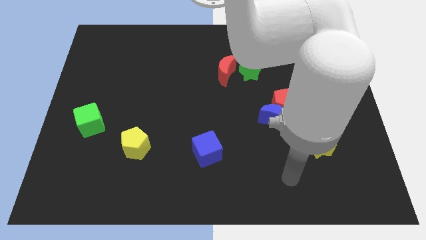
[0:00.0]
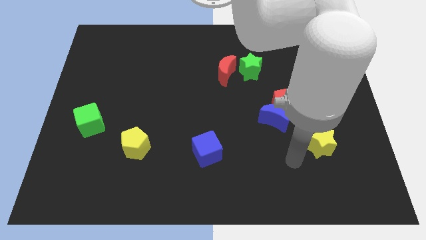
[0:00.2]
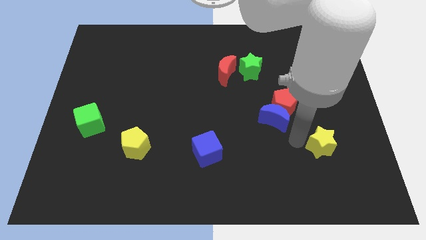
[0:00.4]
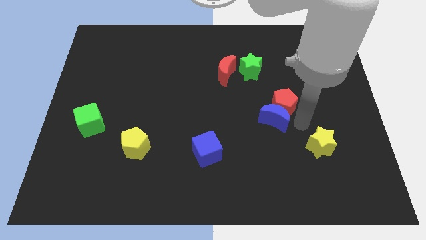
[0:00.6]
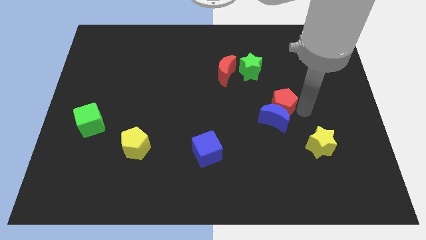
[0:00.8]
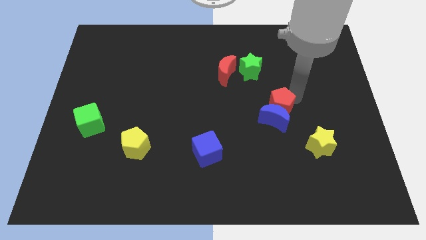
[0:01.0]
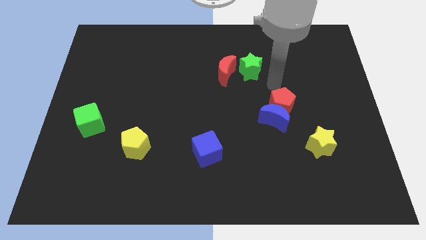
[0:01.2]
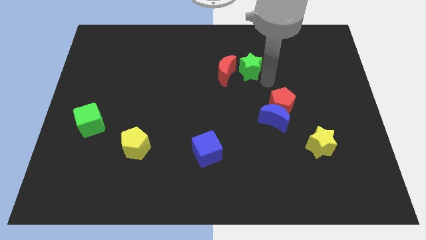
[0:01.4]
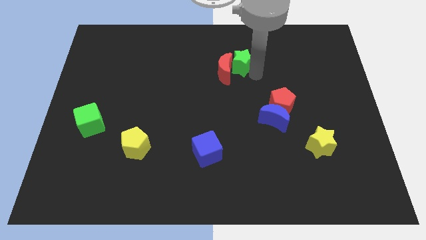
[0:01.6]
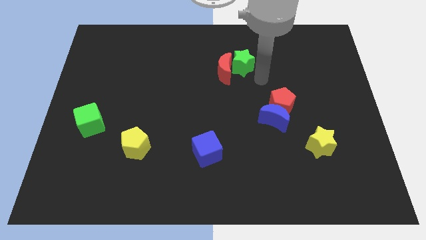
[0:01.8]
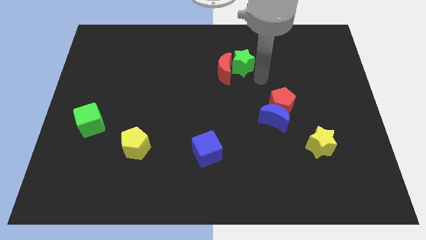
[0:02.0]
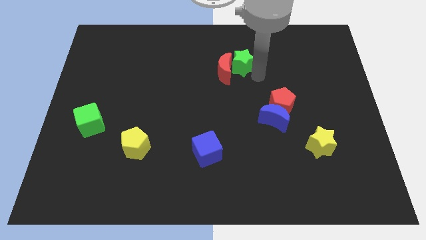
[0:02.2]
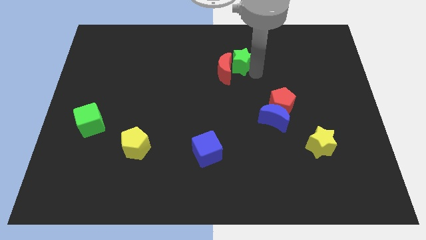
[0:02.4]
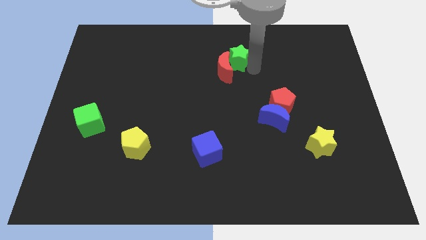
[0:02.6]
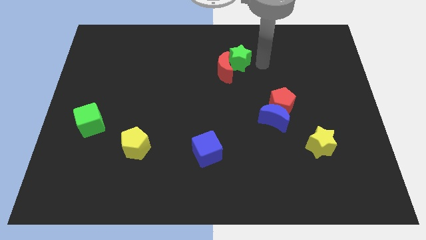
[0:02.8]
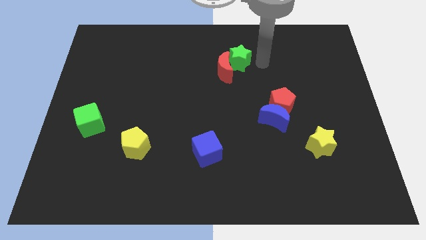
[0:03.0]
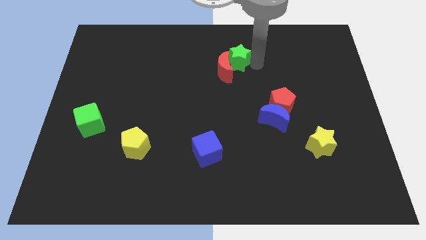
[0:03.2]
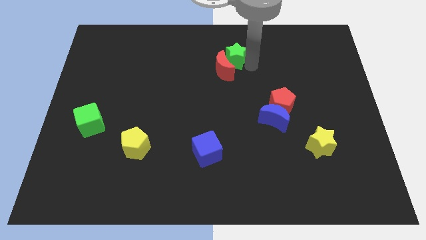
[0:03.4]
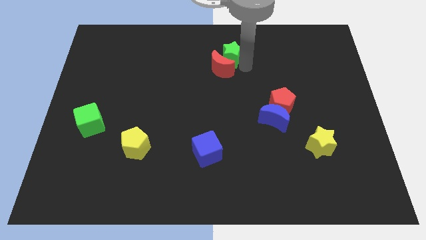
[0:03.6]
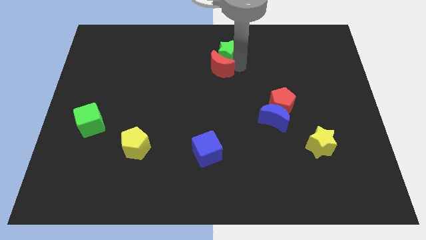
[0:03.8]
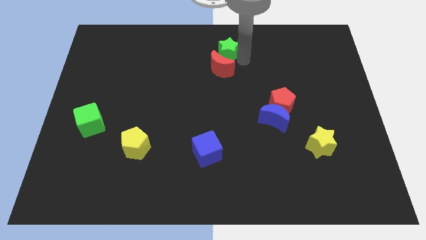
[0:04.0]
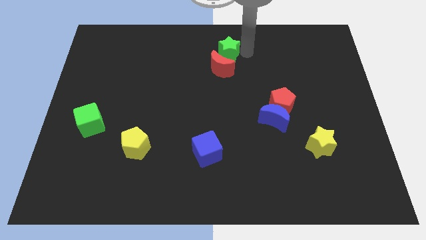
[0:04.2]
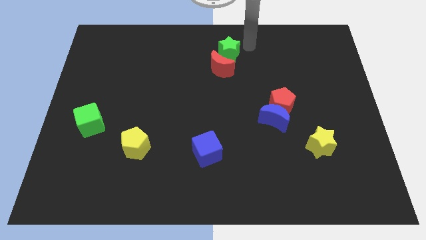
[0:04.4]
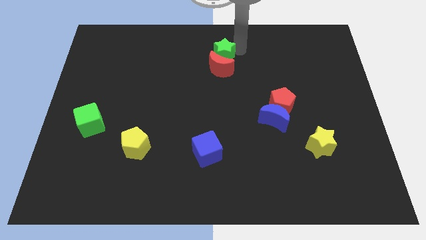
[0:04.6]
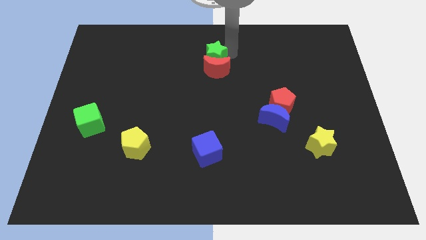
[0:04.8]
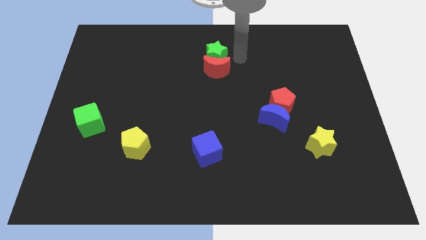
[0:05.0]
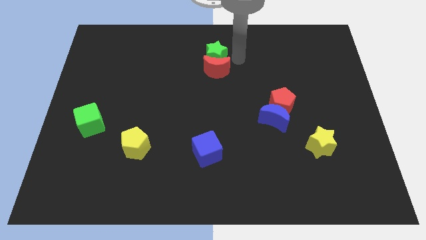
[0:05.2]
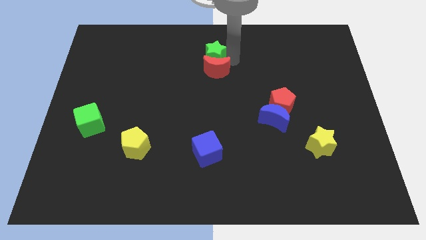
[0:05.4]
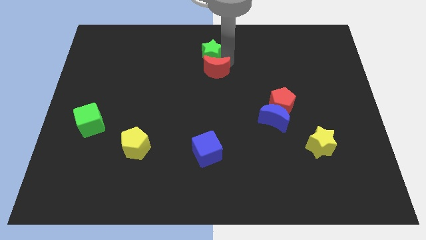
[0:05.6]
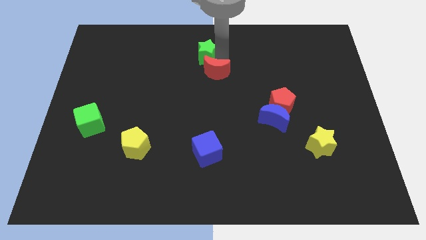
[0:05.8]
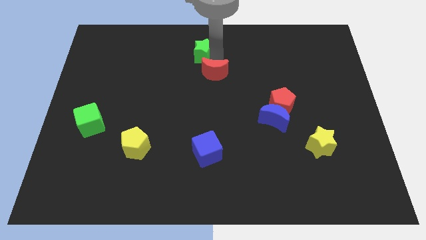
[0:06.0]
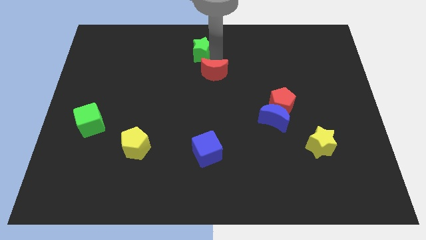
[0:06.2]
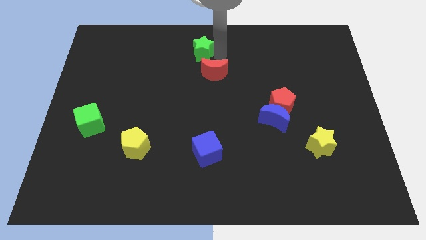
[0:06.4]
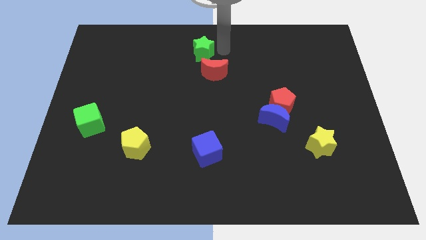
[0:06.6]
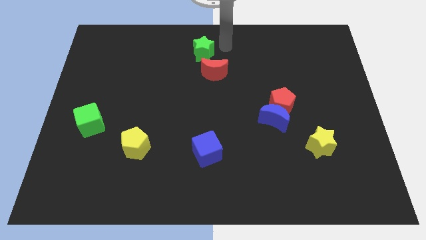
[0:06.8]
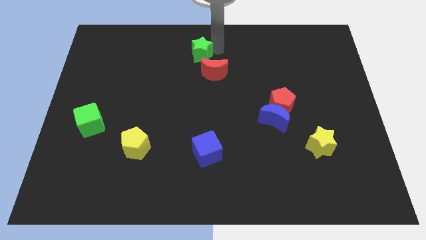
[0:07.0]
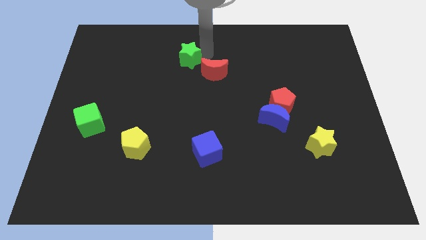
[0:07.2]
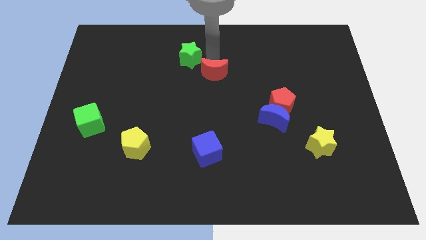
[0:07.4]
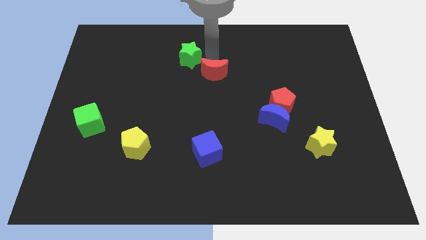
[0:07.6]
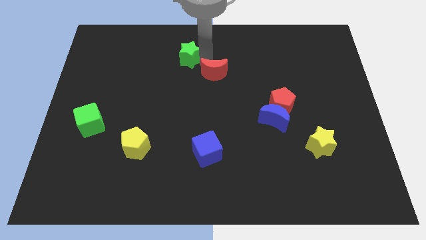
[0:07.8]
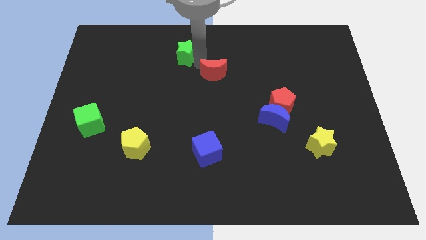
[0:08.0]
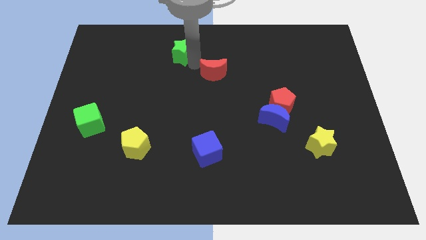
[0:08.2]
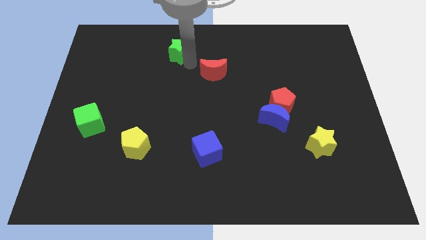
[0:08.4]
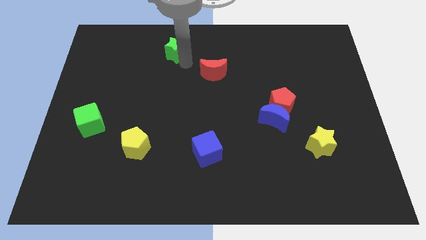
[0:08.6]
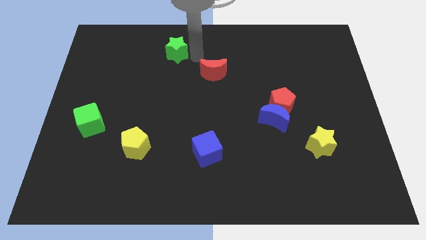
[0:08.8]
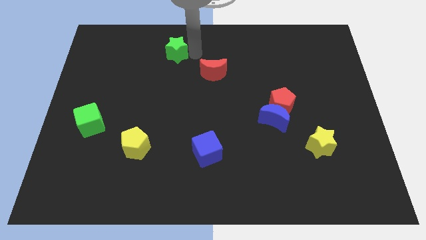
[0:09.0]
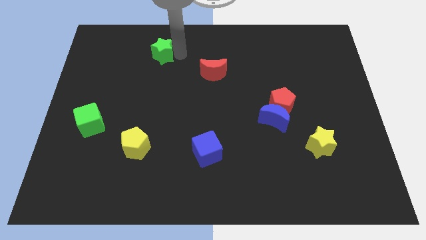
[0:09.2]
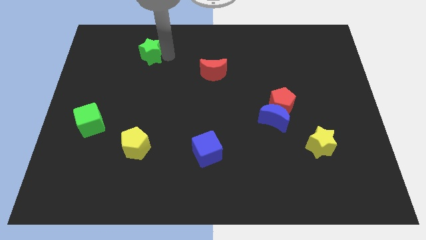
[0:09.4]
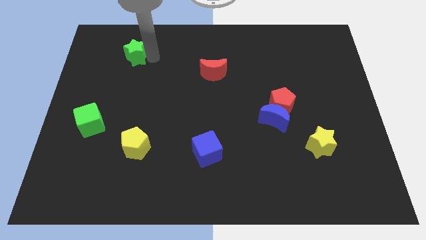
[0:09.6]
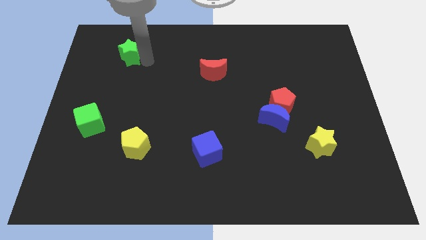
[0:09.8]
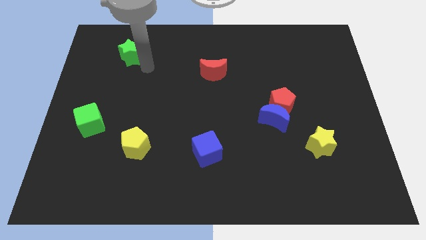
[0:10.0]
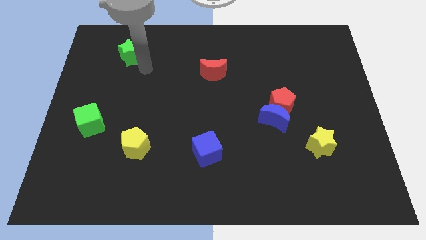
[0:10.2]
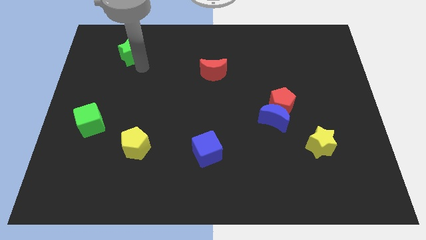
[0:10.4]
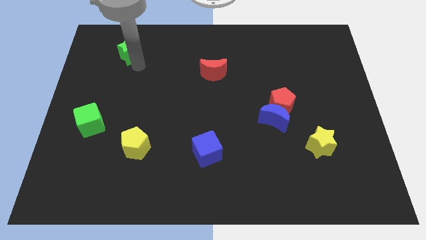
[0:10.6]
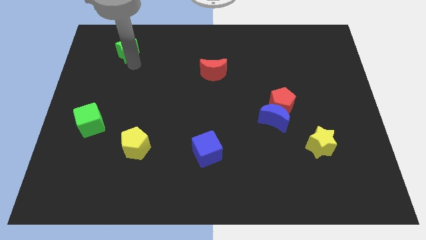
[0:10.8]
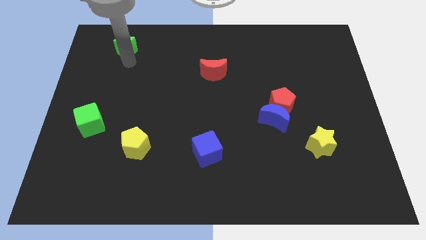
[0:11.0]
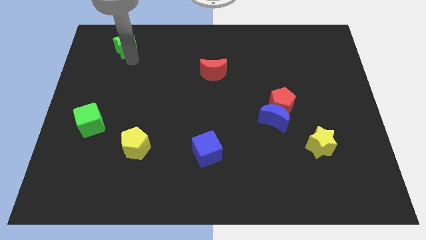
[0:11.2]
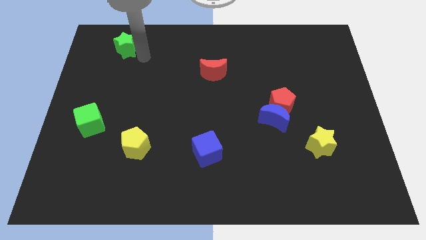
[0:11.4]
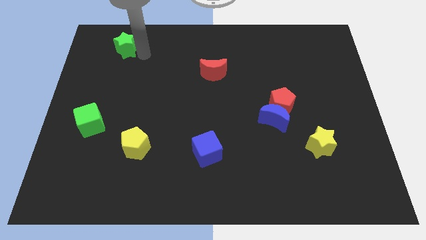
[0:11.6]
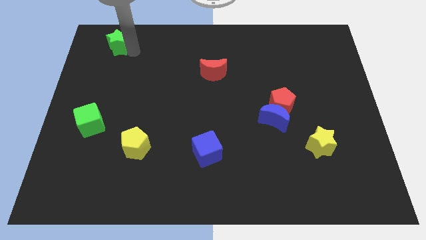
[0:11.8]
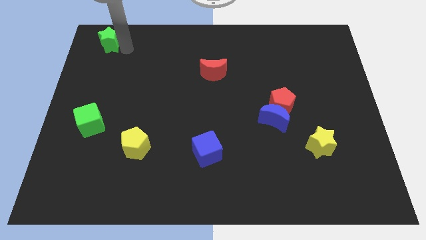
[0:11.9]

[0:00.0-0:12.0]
slide the green star to the top left

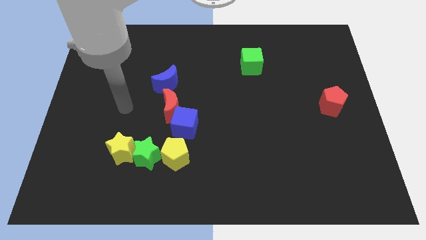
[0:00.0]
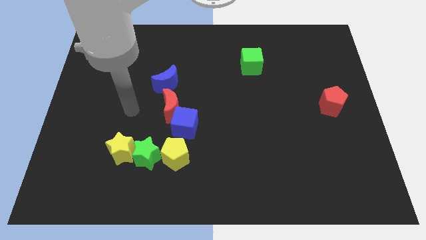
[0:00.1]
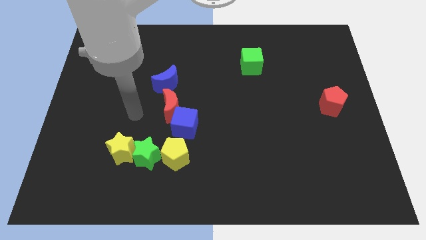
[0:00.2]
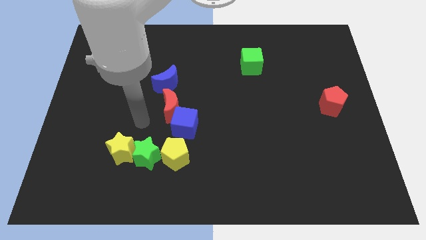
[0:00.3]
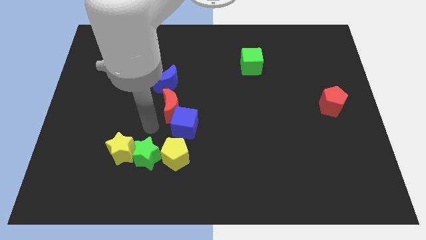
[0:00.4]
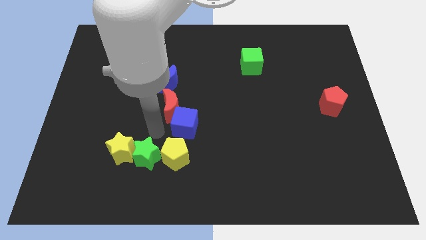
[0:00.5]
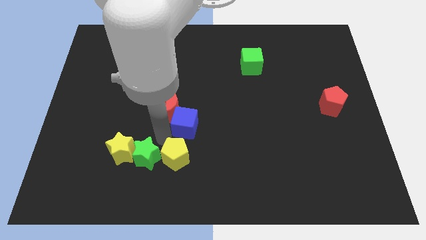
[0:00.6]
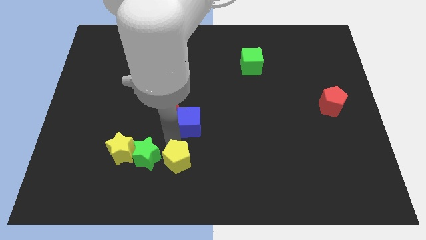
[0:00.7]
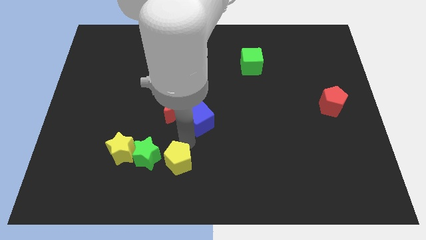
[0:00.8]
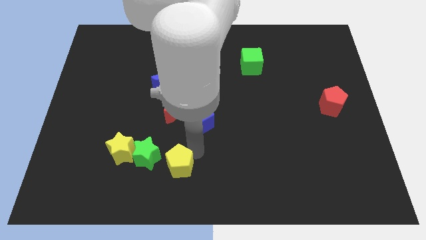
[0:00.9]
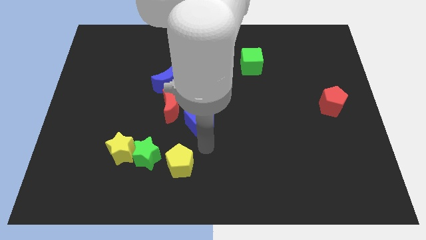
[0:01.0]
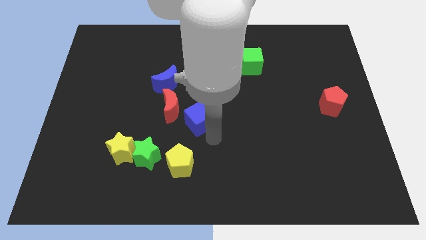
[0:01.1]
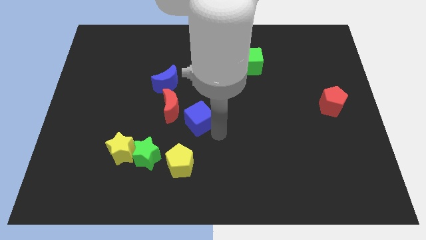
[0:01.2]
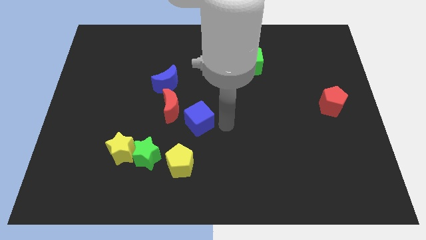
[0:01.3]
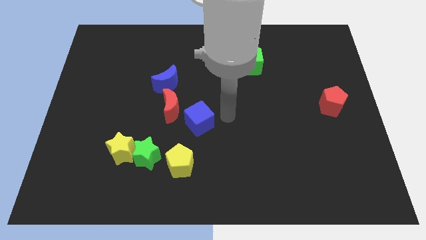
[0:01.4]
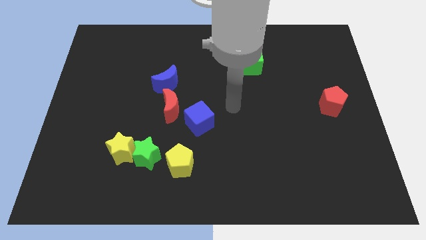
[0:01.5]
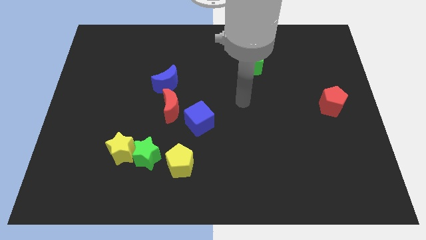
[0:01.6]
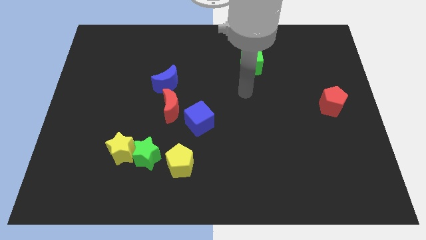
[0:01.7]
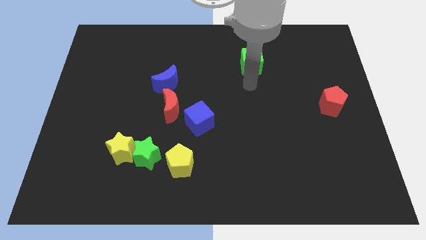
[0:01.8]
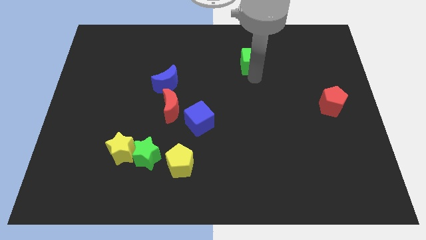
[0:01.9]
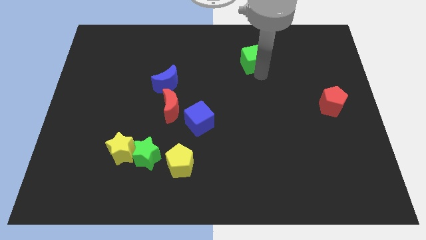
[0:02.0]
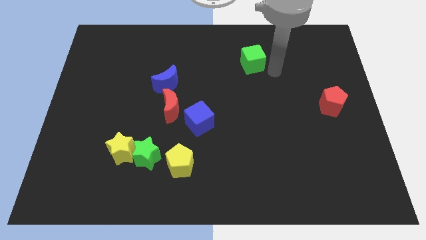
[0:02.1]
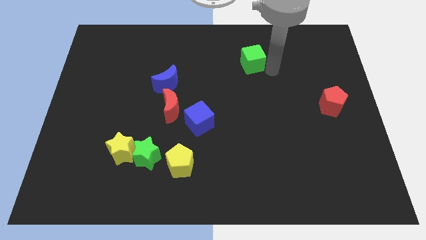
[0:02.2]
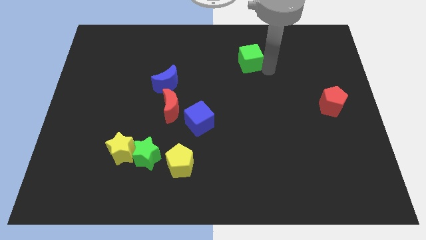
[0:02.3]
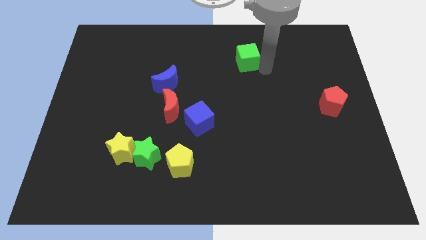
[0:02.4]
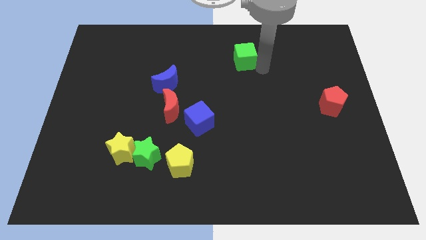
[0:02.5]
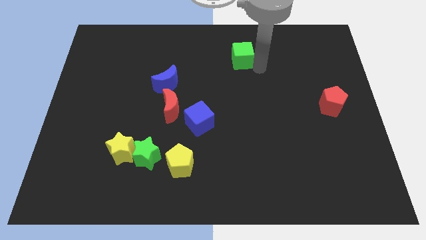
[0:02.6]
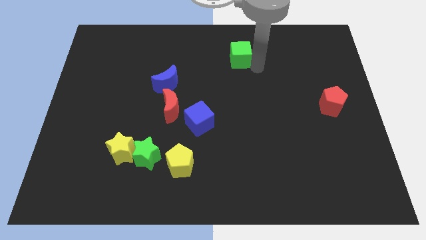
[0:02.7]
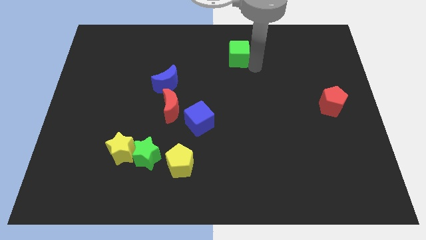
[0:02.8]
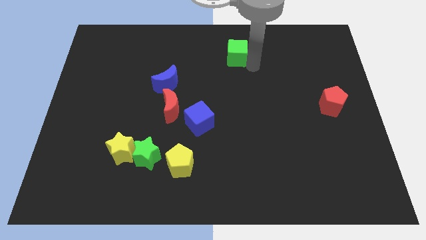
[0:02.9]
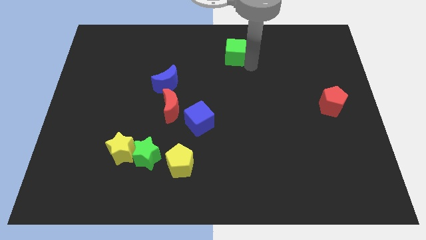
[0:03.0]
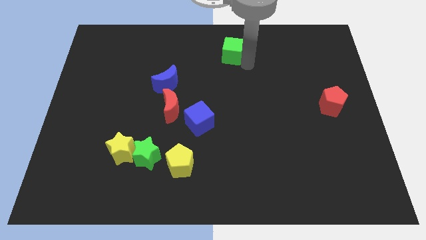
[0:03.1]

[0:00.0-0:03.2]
put the green cube to the towards your base
